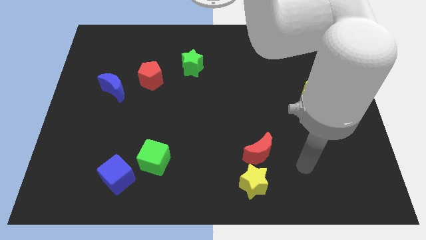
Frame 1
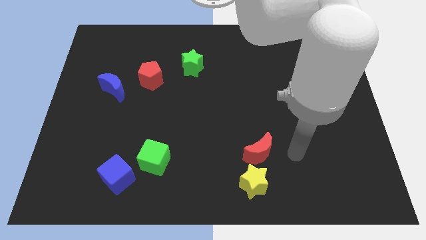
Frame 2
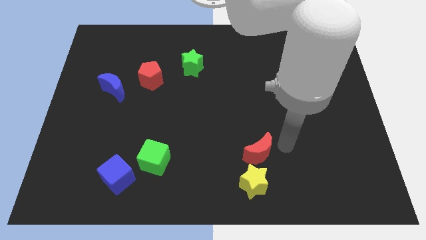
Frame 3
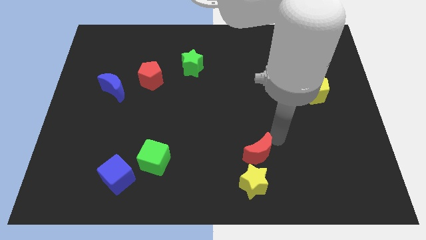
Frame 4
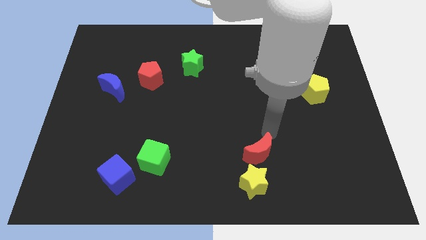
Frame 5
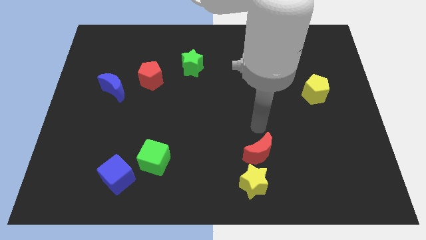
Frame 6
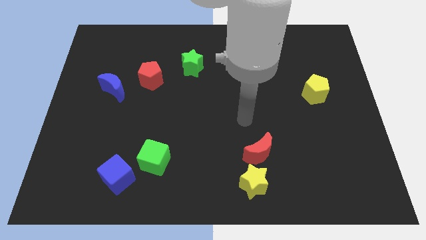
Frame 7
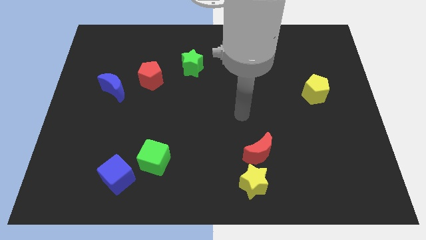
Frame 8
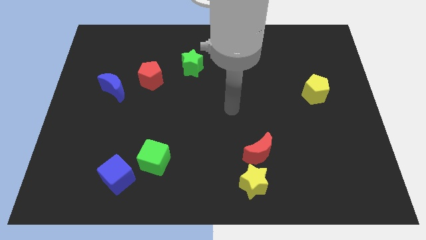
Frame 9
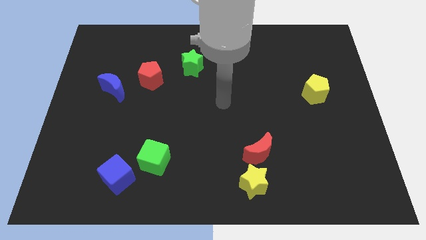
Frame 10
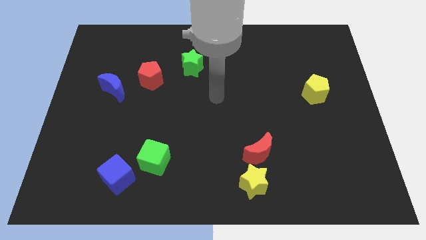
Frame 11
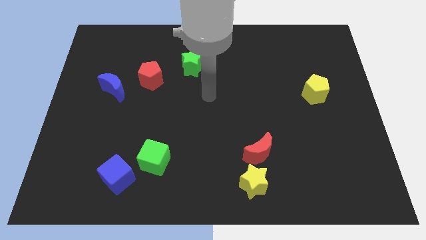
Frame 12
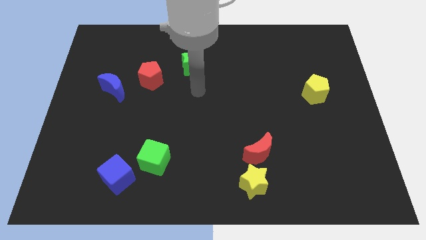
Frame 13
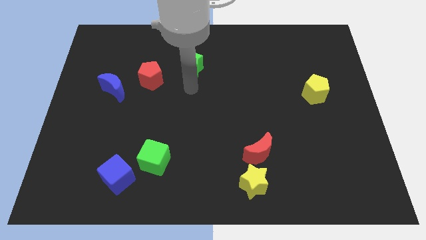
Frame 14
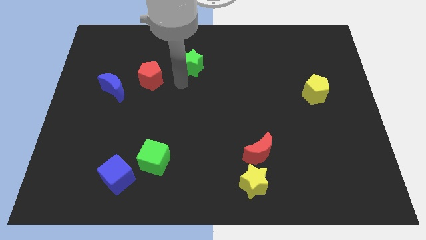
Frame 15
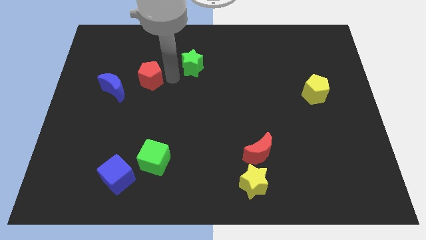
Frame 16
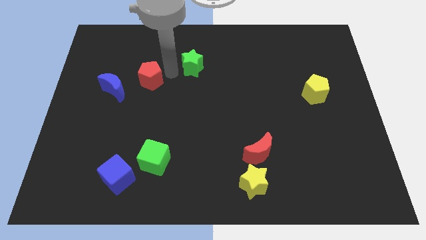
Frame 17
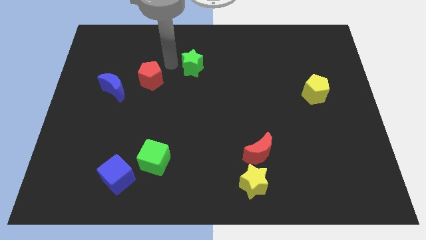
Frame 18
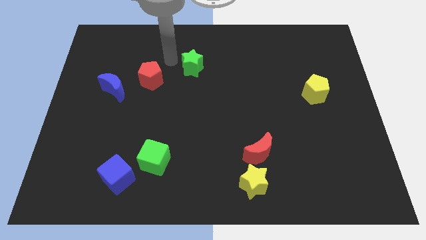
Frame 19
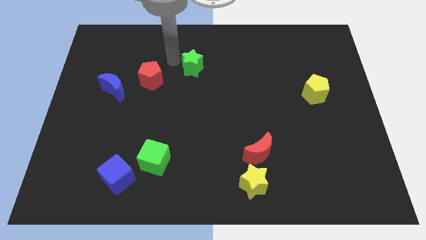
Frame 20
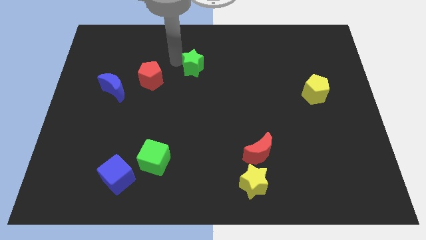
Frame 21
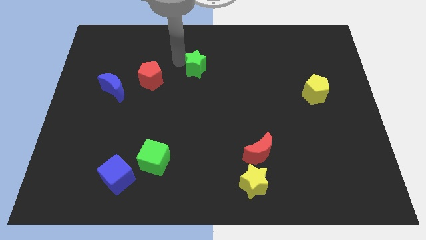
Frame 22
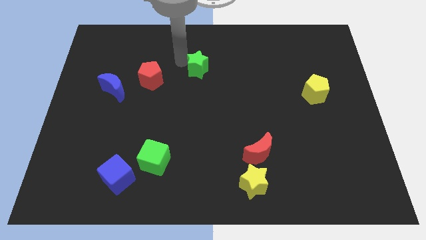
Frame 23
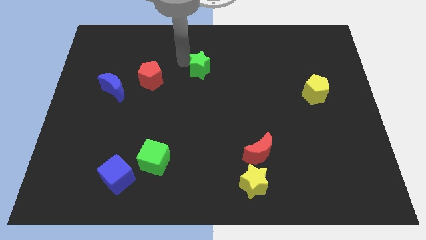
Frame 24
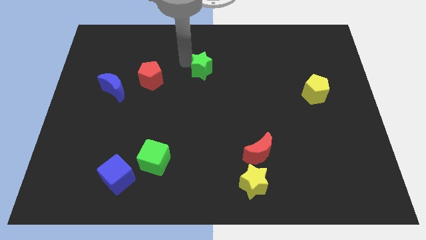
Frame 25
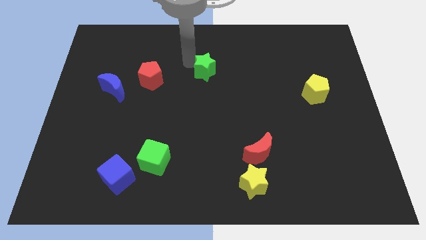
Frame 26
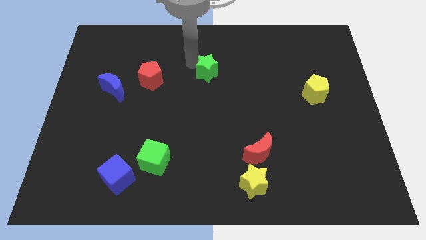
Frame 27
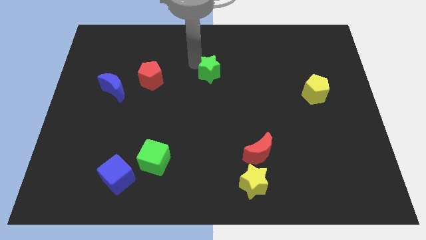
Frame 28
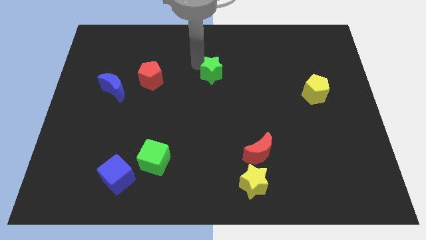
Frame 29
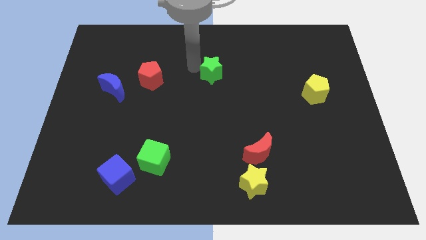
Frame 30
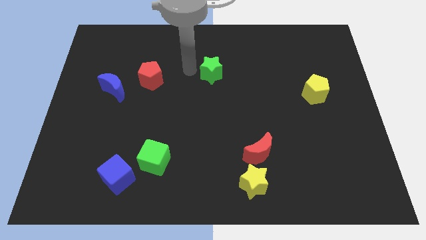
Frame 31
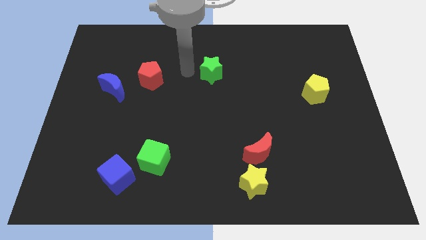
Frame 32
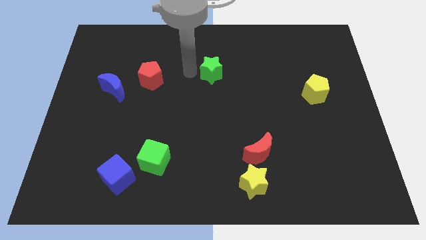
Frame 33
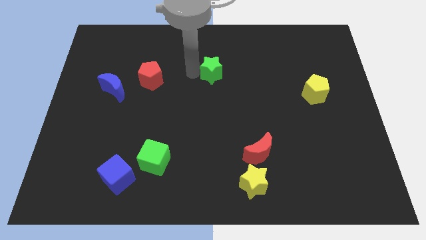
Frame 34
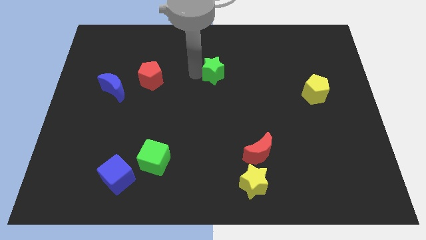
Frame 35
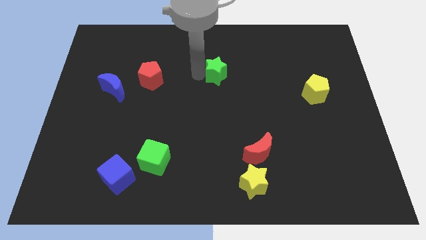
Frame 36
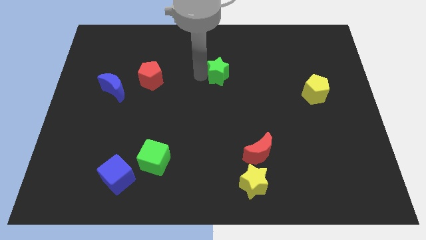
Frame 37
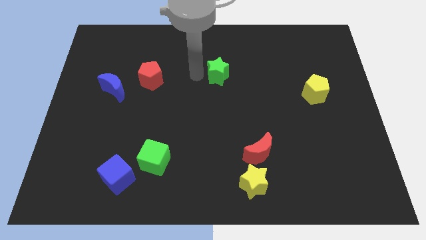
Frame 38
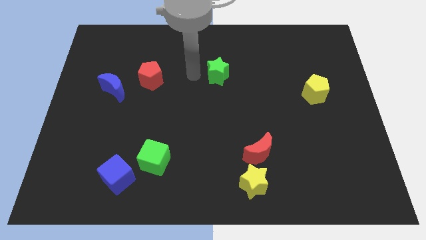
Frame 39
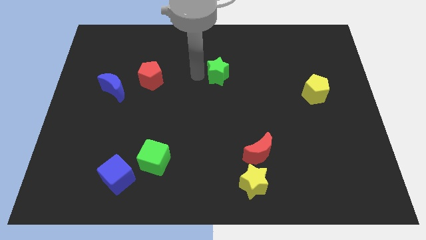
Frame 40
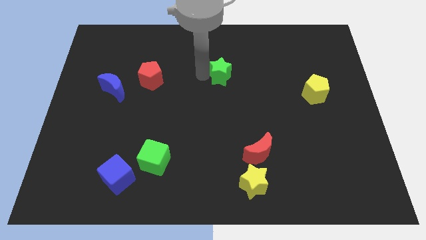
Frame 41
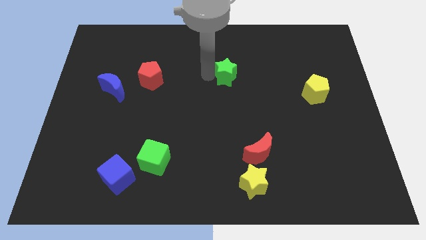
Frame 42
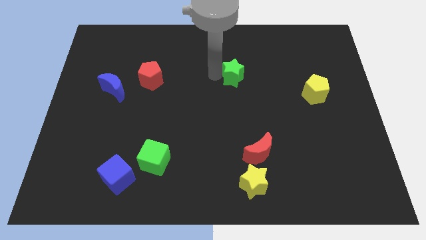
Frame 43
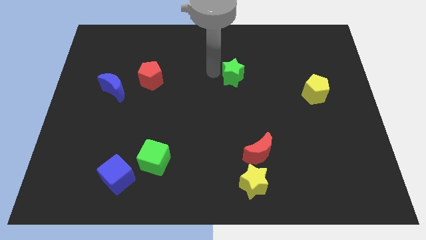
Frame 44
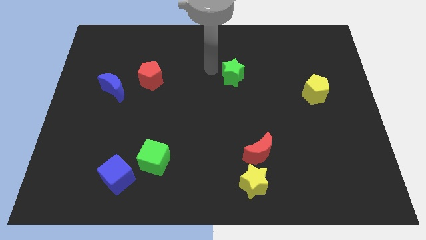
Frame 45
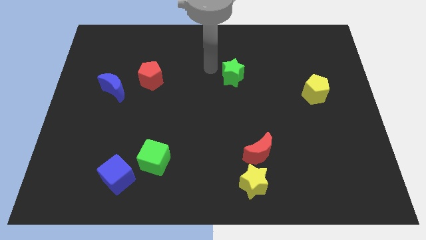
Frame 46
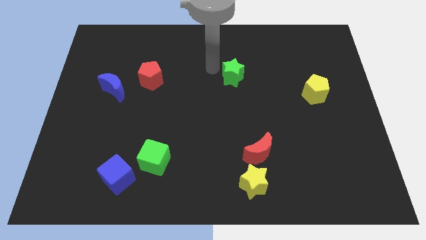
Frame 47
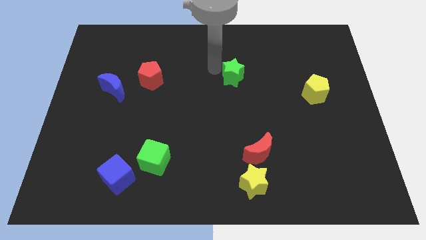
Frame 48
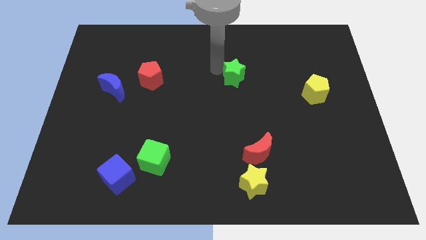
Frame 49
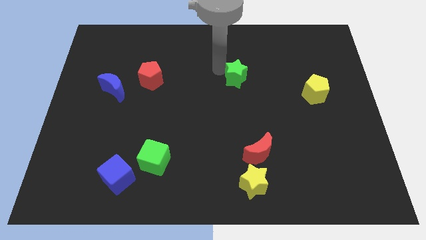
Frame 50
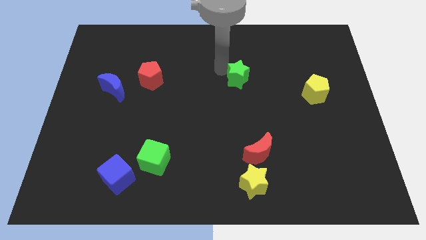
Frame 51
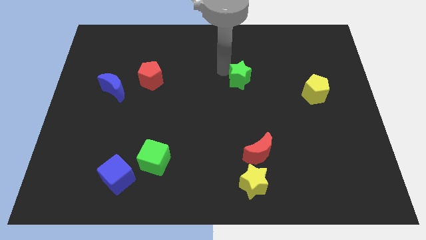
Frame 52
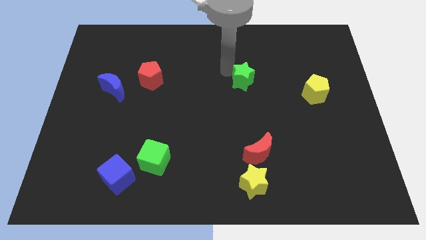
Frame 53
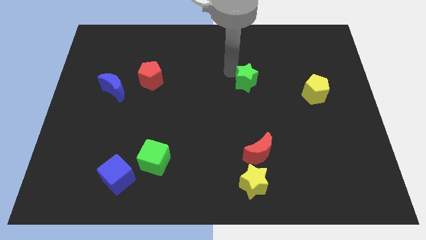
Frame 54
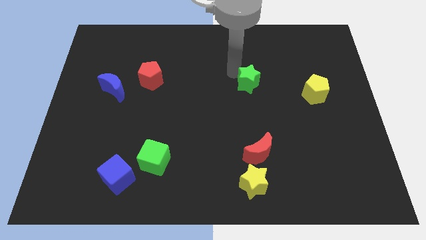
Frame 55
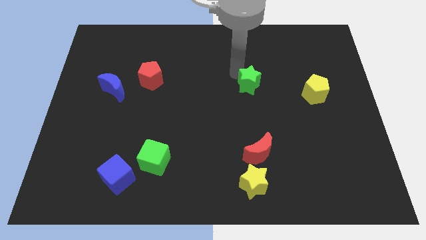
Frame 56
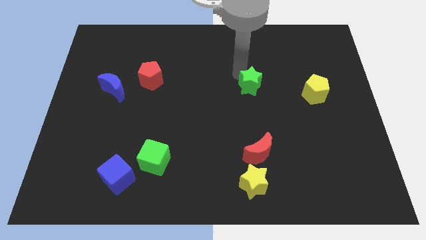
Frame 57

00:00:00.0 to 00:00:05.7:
slide the green star to the left side of the yellow pentagon

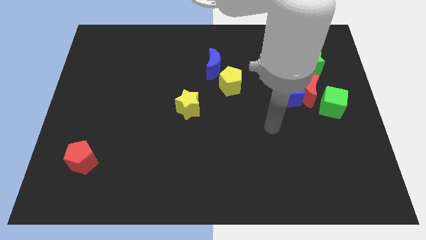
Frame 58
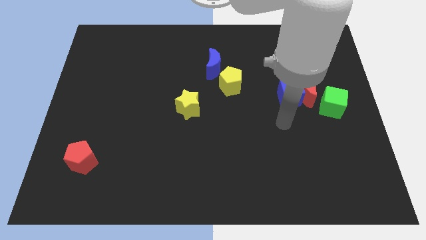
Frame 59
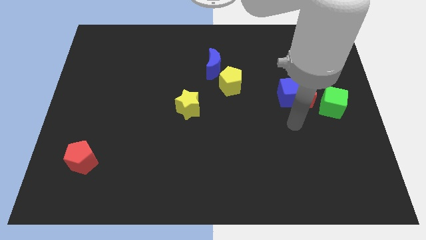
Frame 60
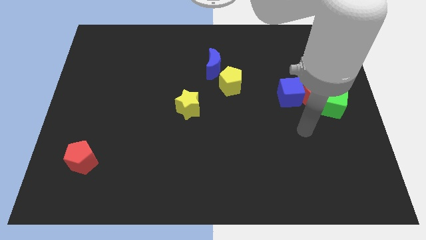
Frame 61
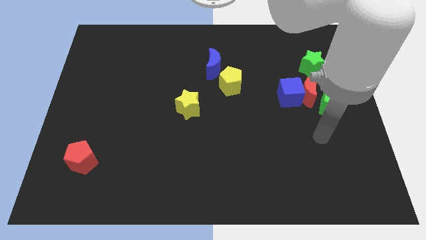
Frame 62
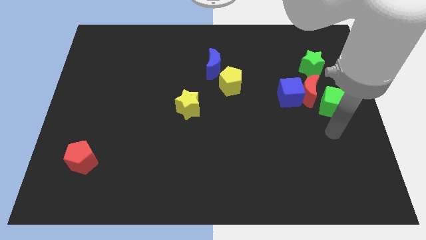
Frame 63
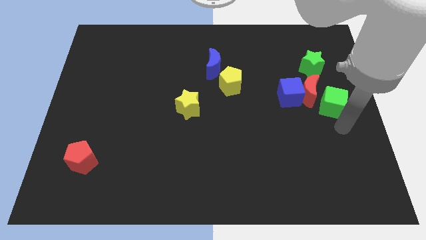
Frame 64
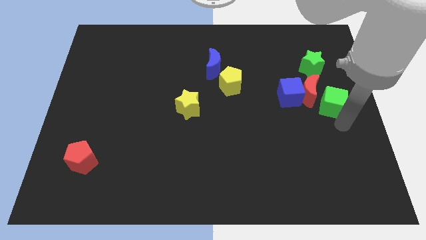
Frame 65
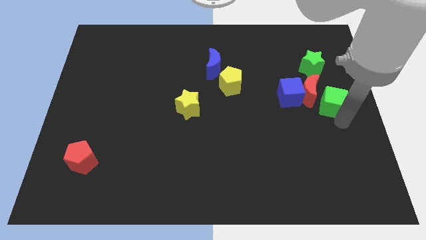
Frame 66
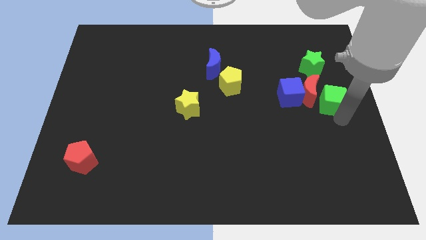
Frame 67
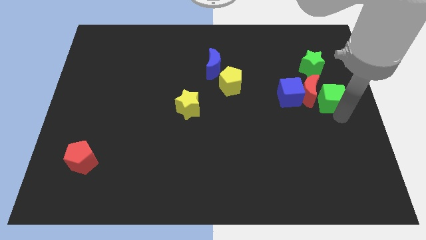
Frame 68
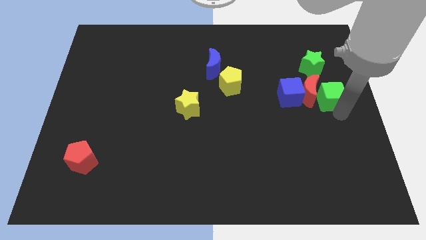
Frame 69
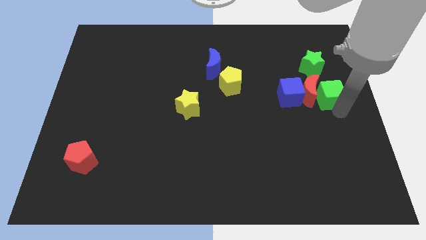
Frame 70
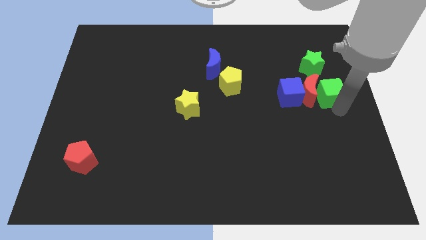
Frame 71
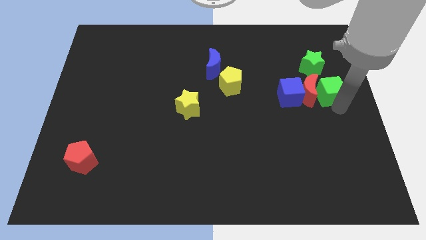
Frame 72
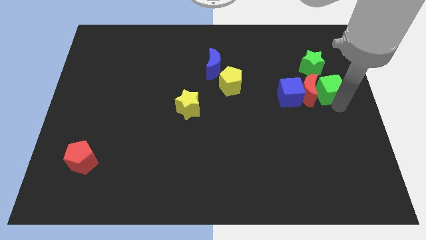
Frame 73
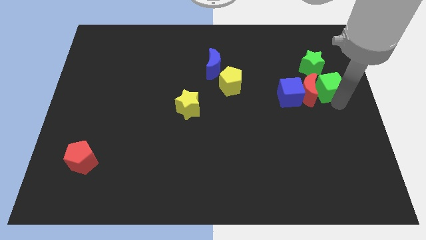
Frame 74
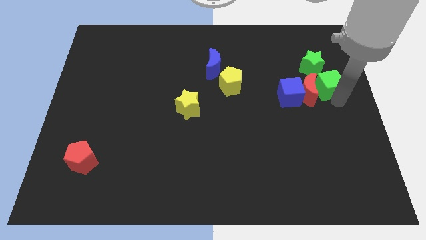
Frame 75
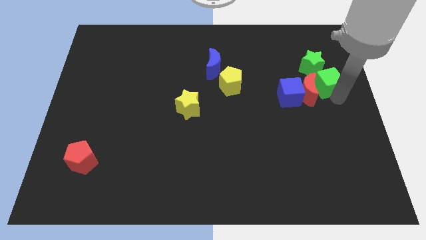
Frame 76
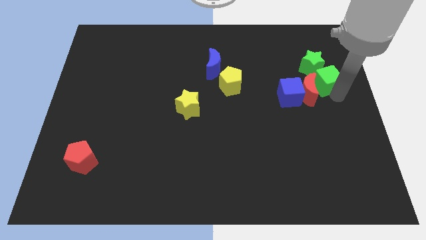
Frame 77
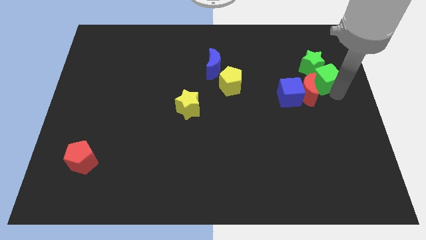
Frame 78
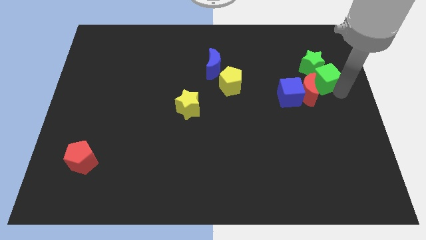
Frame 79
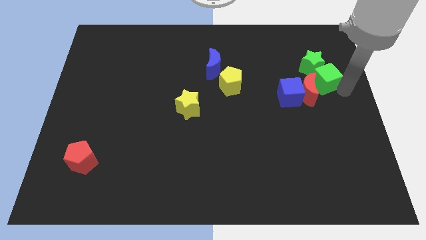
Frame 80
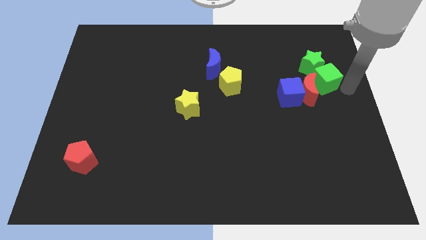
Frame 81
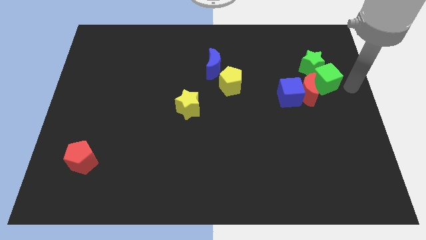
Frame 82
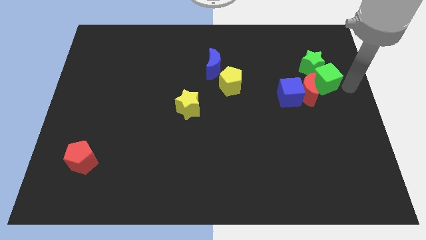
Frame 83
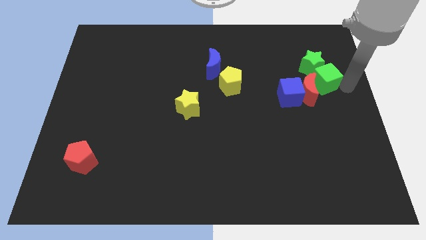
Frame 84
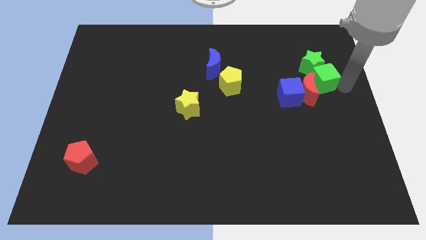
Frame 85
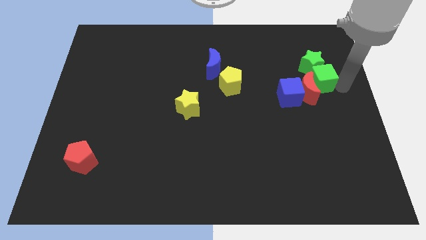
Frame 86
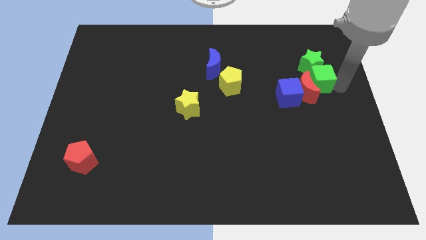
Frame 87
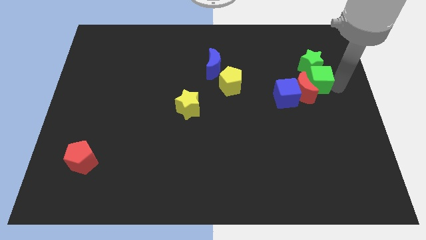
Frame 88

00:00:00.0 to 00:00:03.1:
put the green cube to the bottom left of the green star
